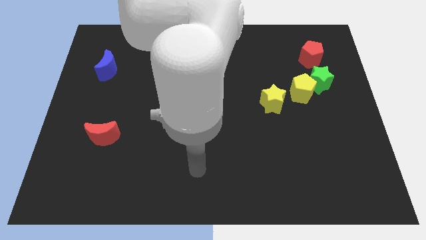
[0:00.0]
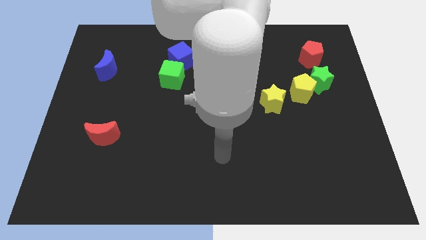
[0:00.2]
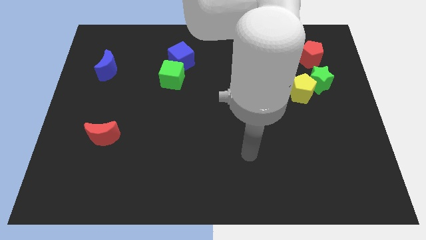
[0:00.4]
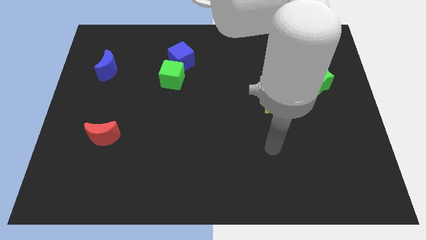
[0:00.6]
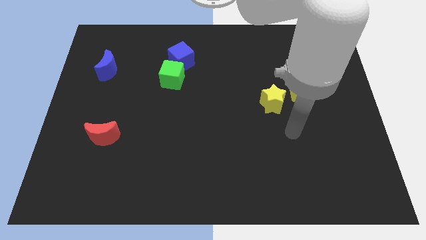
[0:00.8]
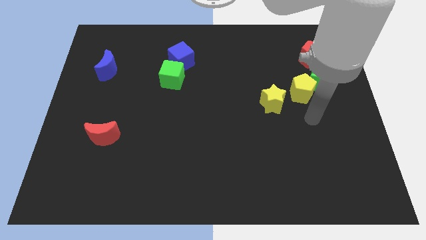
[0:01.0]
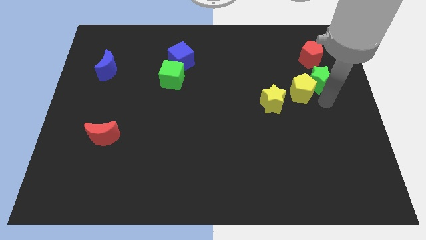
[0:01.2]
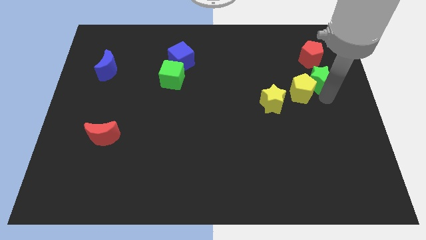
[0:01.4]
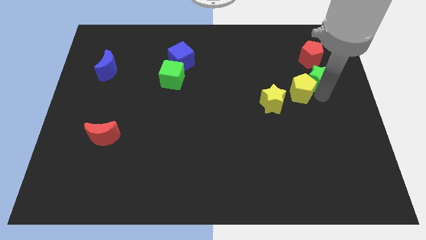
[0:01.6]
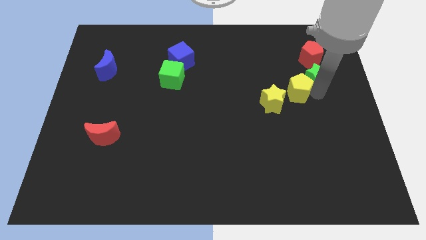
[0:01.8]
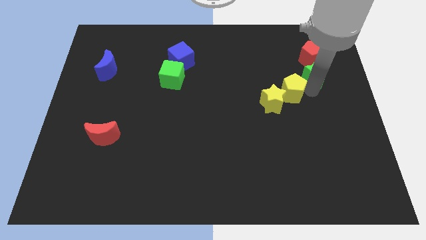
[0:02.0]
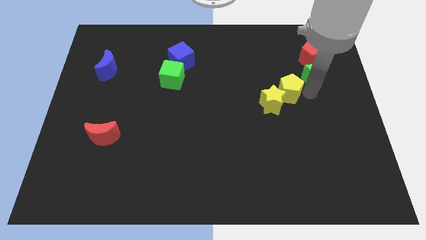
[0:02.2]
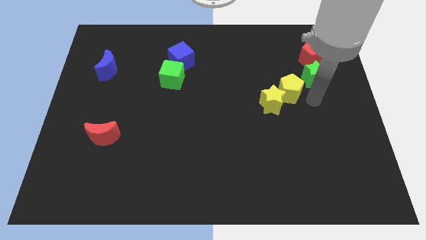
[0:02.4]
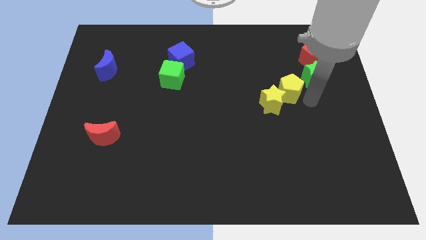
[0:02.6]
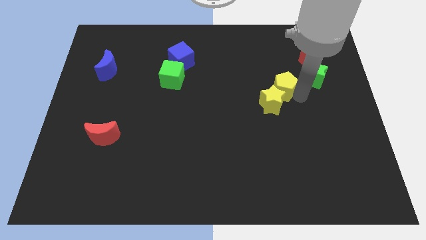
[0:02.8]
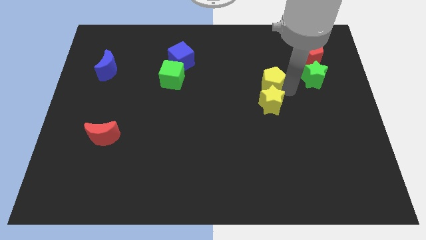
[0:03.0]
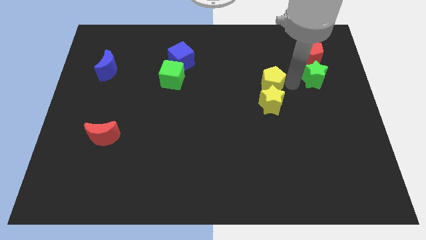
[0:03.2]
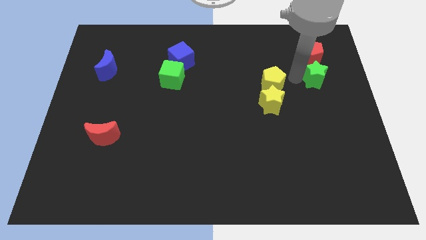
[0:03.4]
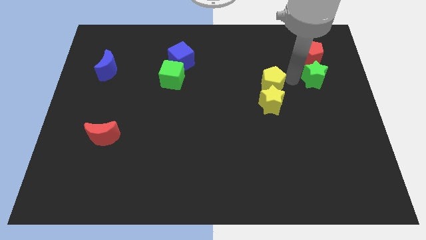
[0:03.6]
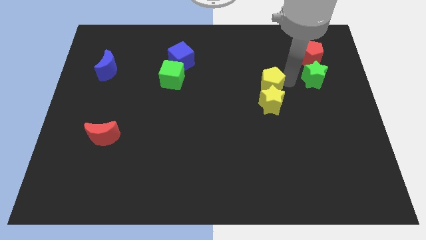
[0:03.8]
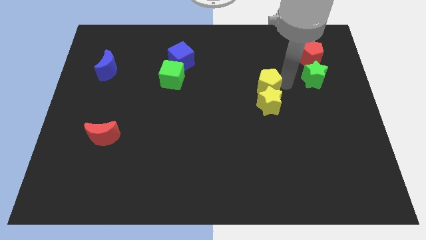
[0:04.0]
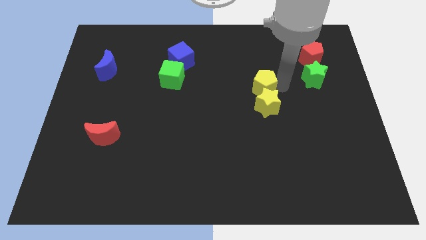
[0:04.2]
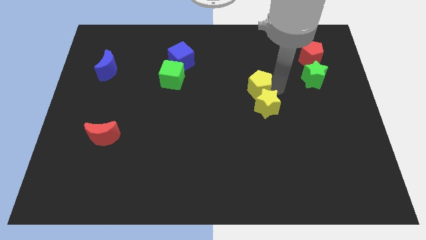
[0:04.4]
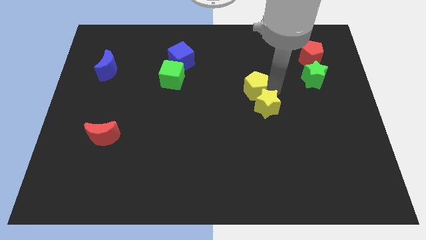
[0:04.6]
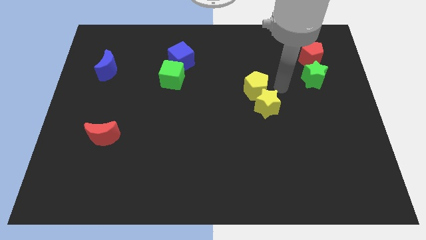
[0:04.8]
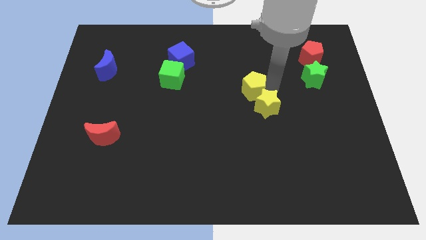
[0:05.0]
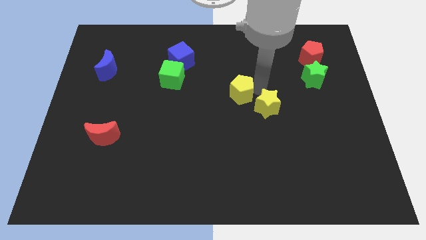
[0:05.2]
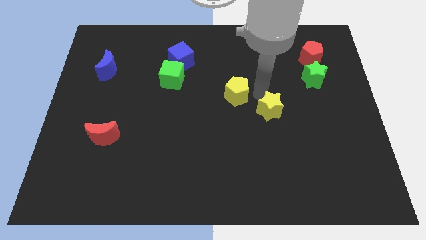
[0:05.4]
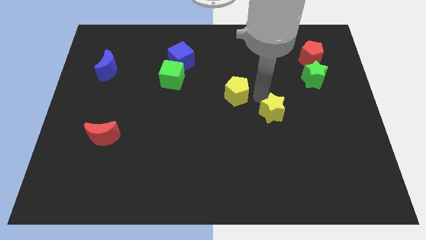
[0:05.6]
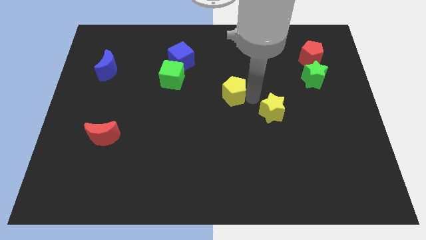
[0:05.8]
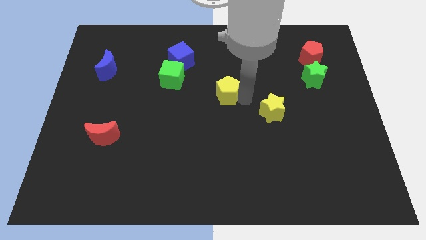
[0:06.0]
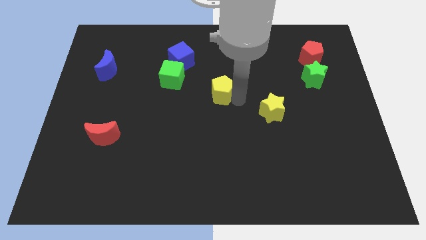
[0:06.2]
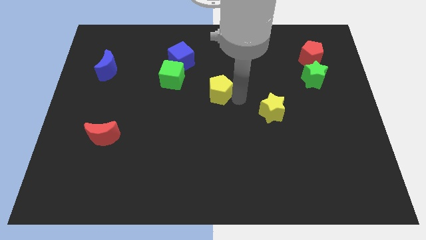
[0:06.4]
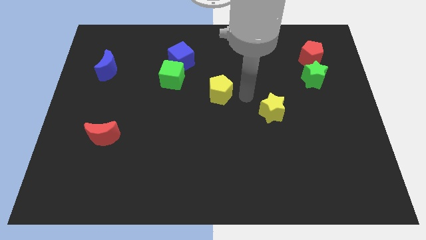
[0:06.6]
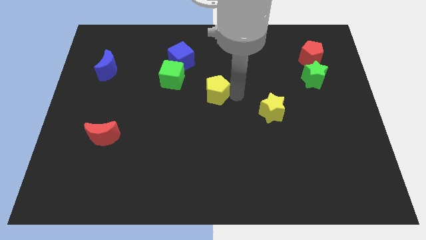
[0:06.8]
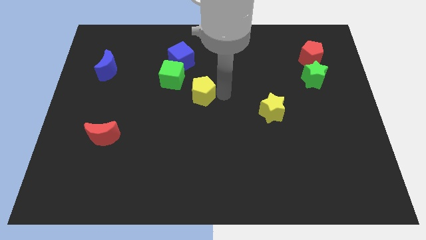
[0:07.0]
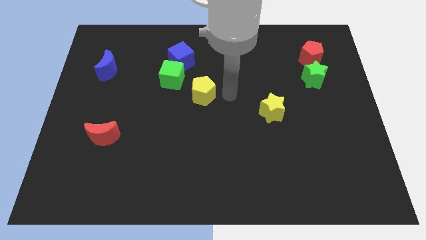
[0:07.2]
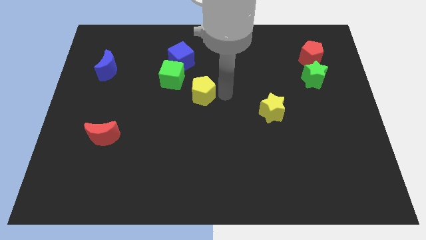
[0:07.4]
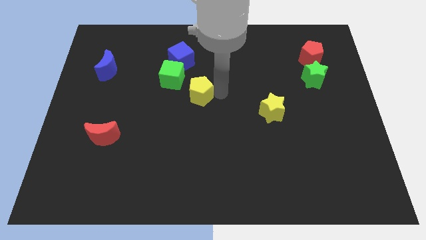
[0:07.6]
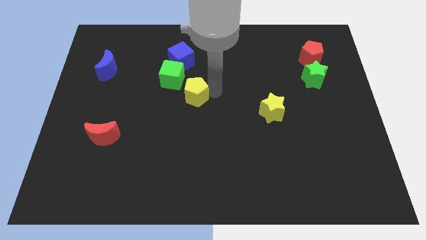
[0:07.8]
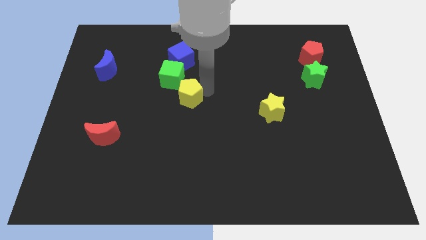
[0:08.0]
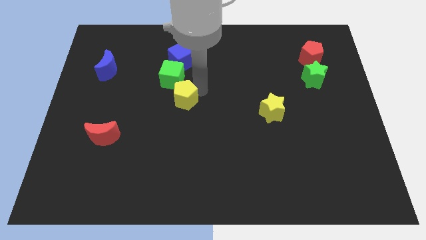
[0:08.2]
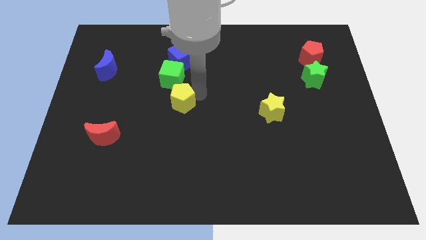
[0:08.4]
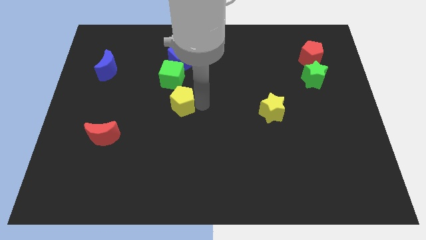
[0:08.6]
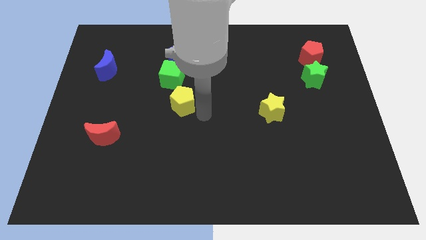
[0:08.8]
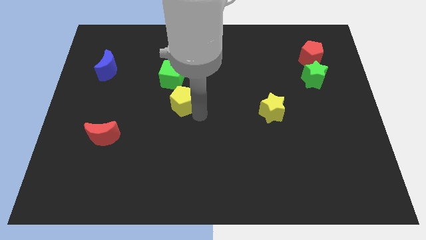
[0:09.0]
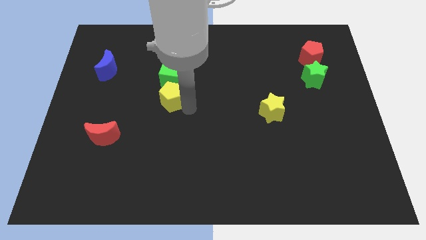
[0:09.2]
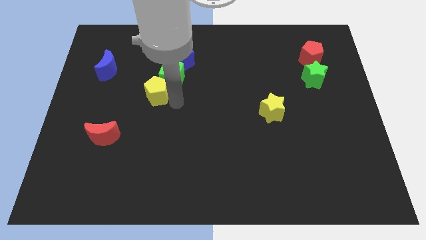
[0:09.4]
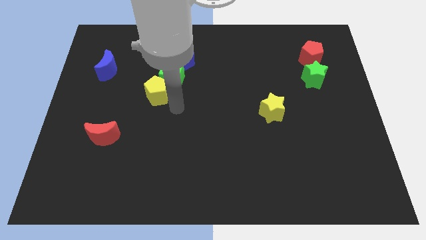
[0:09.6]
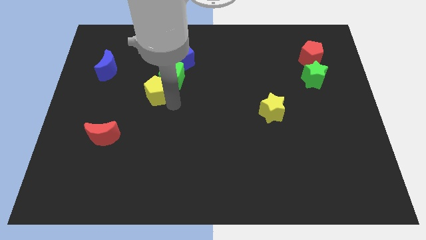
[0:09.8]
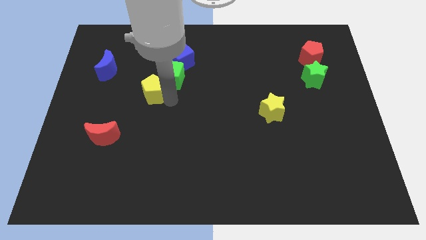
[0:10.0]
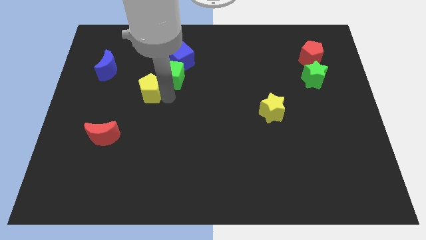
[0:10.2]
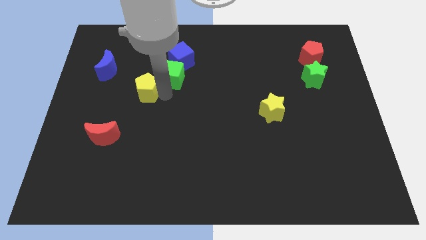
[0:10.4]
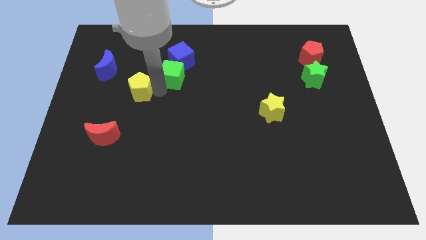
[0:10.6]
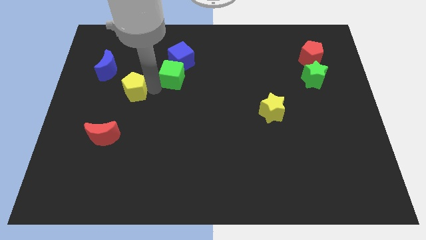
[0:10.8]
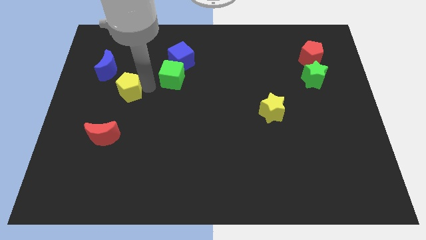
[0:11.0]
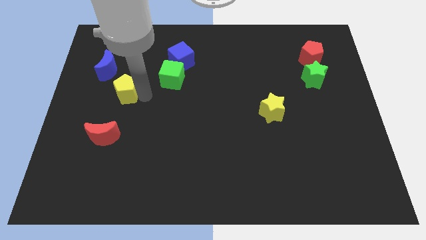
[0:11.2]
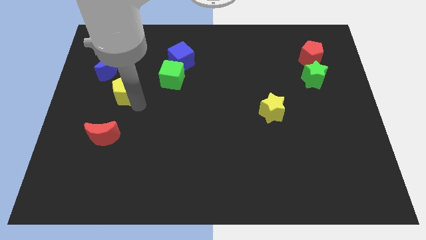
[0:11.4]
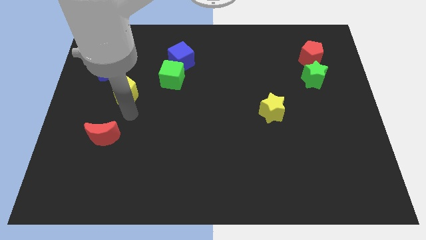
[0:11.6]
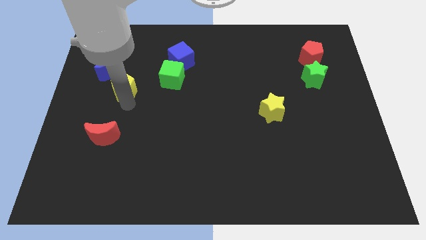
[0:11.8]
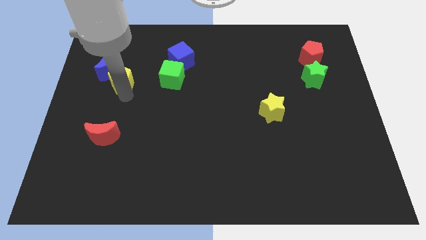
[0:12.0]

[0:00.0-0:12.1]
push the yellow pentagon next to the blue moon

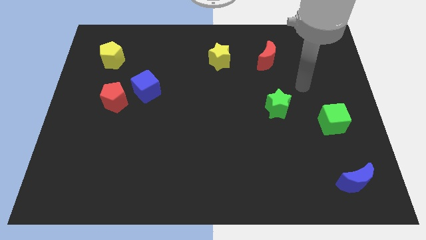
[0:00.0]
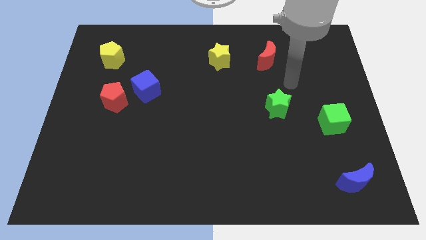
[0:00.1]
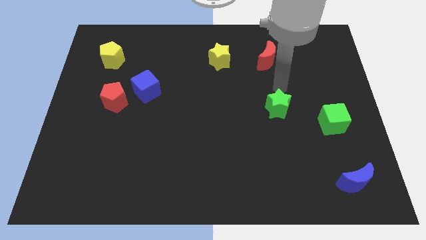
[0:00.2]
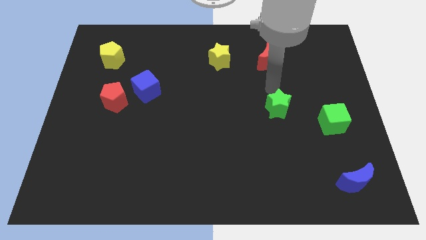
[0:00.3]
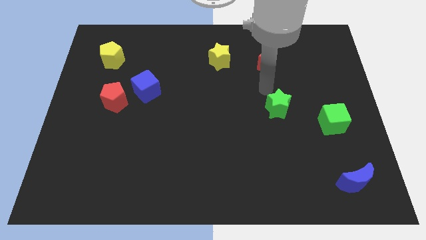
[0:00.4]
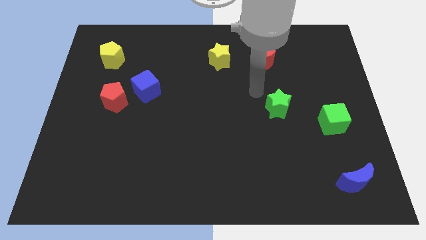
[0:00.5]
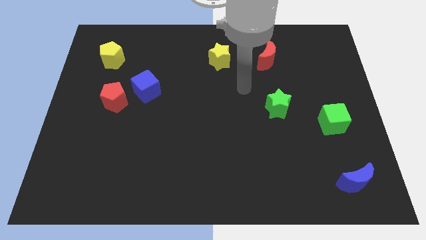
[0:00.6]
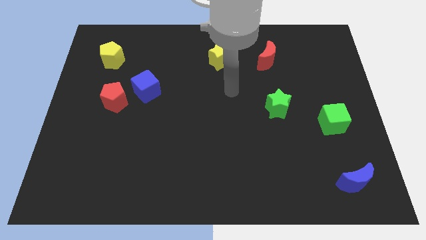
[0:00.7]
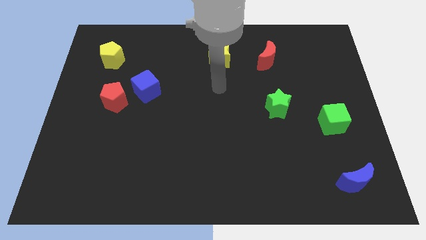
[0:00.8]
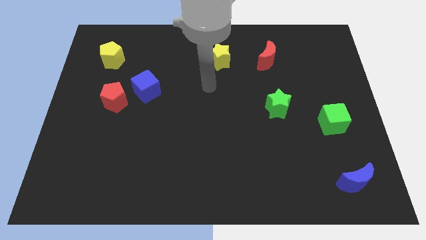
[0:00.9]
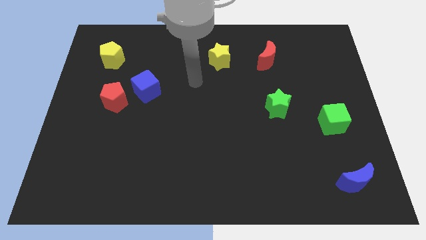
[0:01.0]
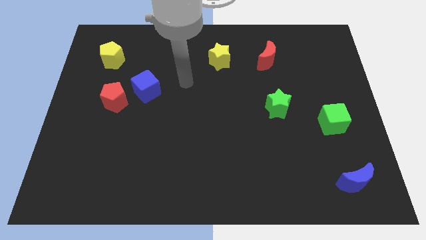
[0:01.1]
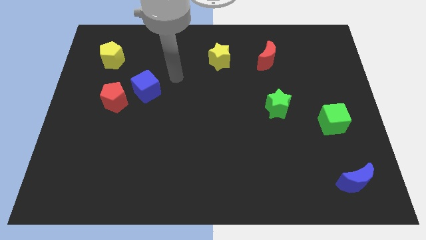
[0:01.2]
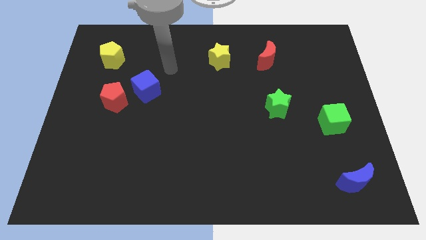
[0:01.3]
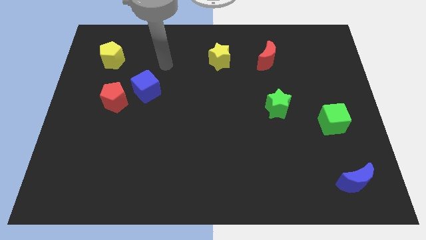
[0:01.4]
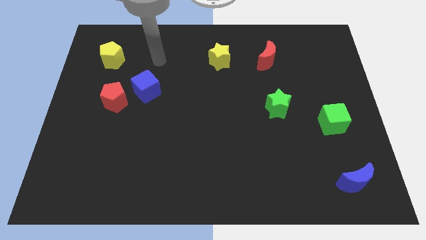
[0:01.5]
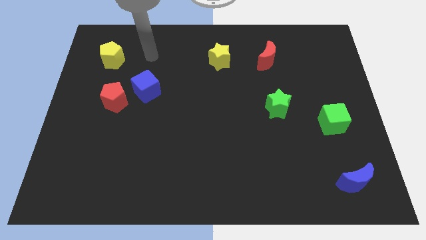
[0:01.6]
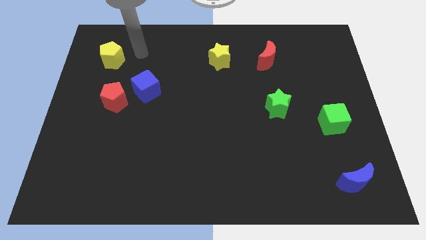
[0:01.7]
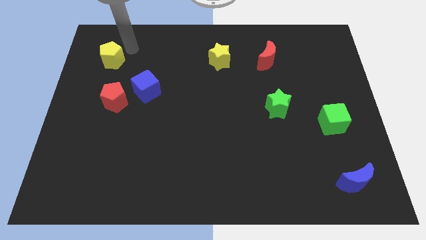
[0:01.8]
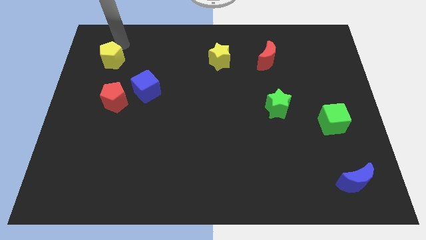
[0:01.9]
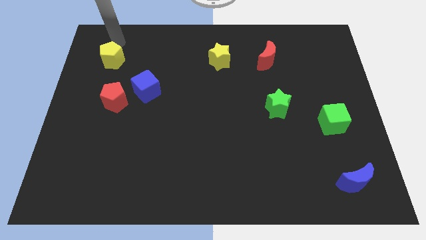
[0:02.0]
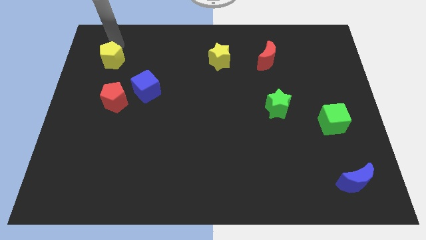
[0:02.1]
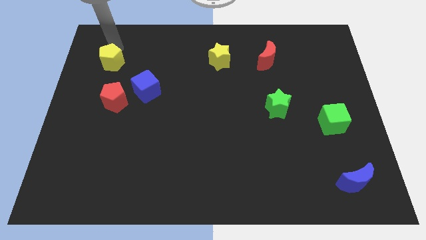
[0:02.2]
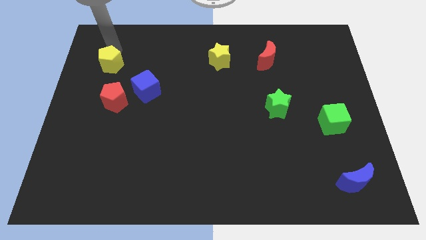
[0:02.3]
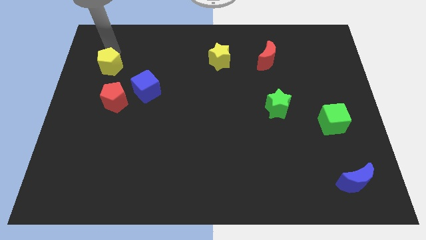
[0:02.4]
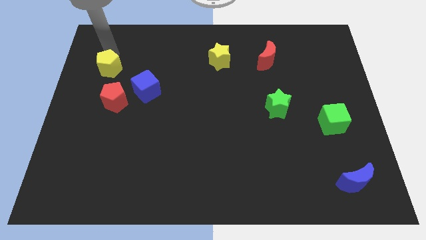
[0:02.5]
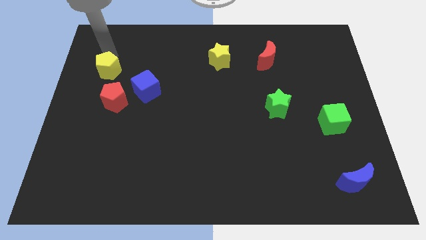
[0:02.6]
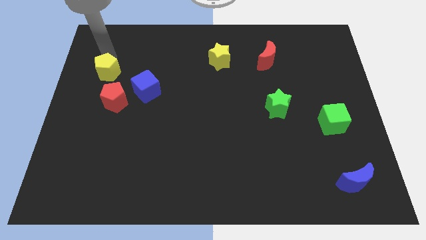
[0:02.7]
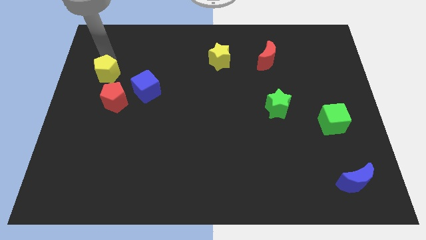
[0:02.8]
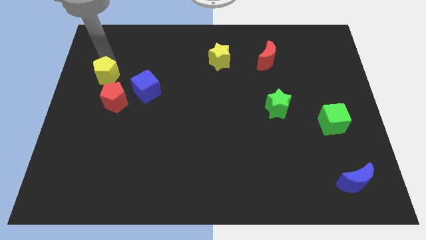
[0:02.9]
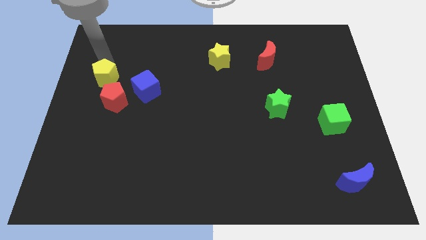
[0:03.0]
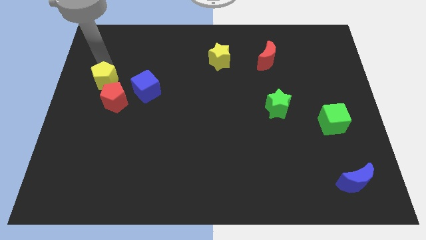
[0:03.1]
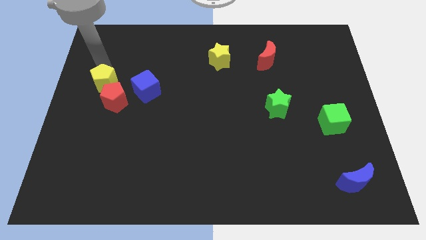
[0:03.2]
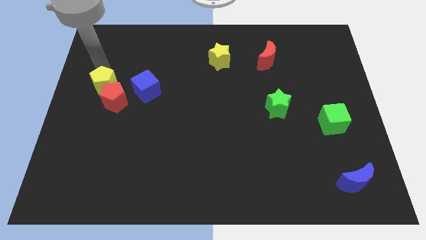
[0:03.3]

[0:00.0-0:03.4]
move the yellow pentagon next to the red pentagon
